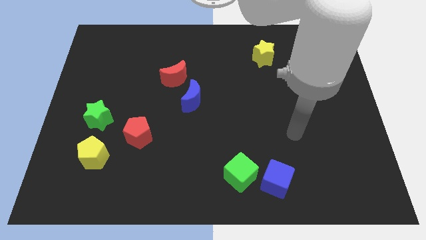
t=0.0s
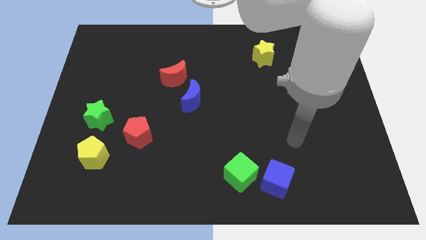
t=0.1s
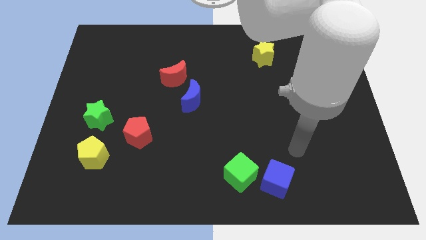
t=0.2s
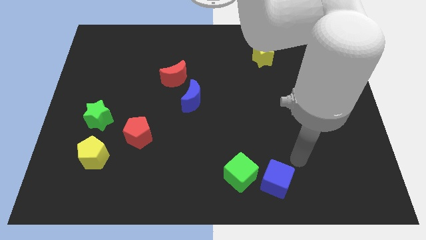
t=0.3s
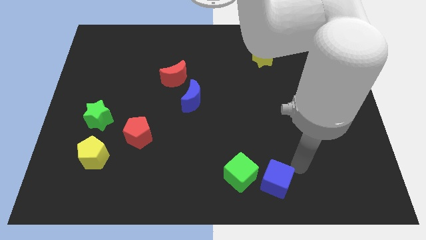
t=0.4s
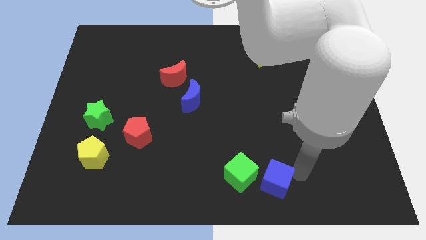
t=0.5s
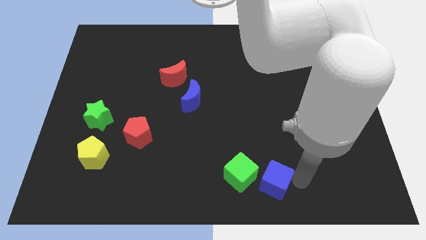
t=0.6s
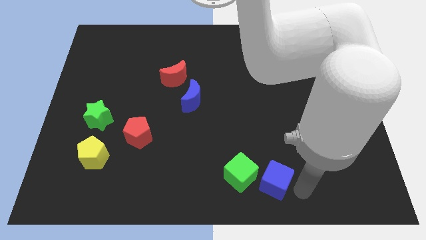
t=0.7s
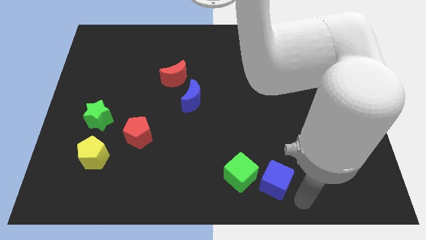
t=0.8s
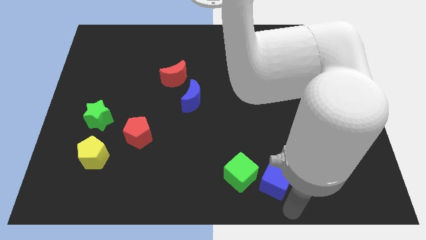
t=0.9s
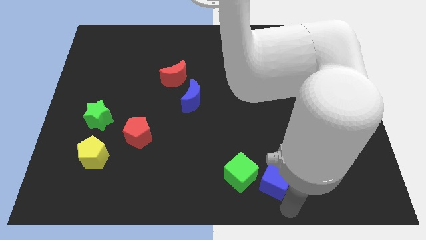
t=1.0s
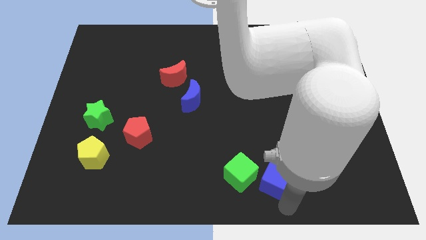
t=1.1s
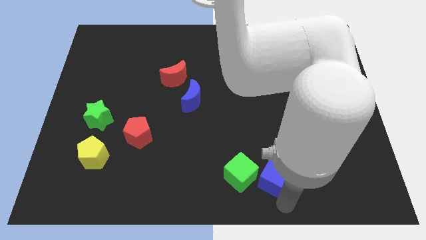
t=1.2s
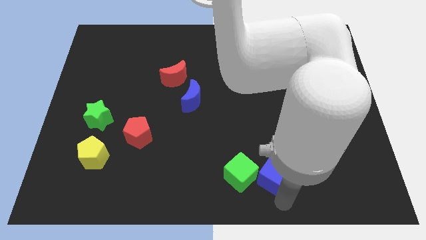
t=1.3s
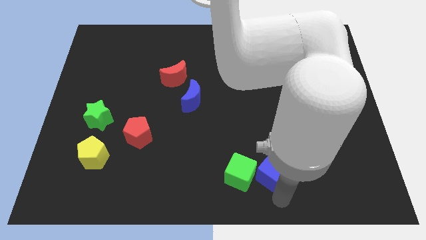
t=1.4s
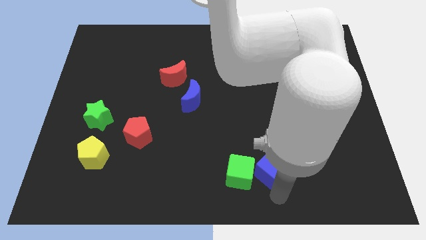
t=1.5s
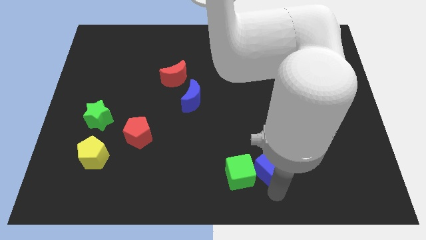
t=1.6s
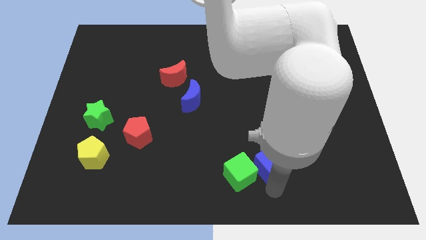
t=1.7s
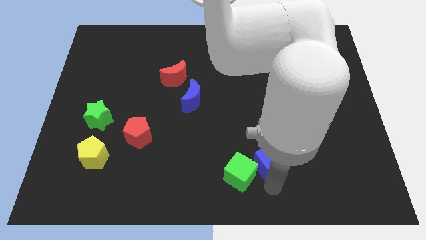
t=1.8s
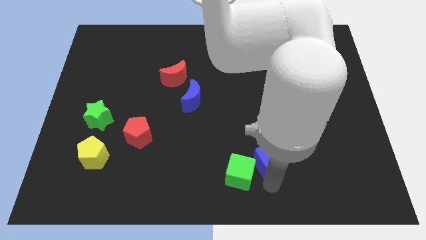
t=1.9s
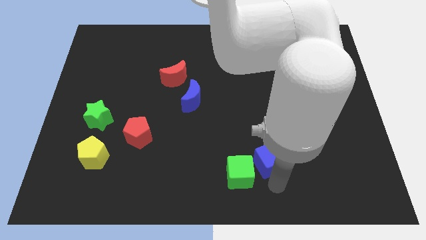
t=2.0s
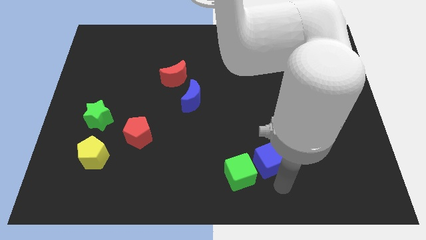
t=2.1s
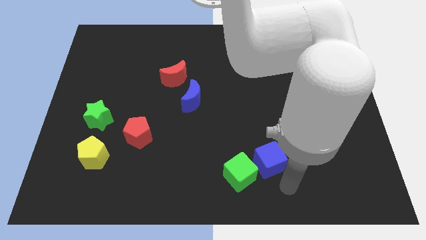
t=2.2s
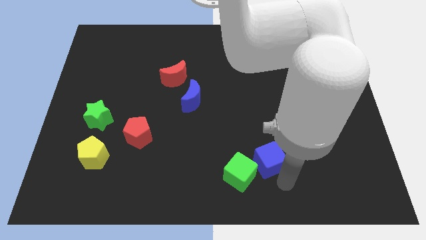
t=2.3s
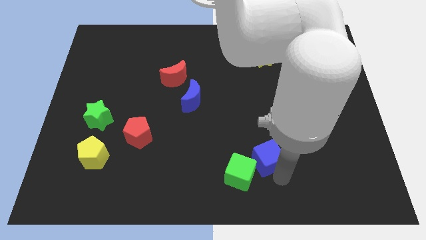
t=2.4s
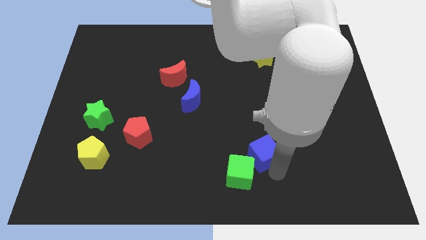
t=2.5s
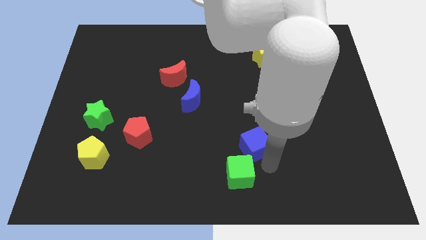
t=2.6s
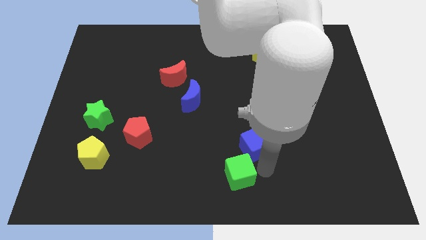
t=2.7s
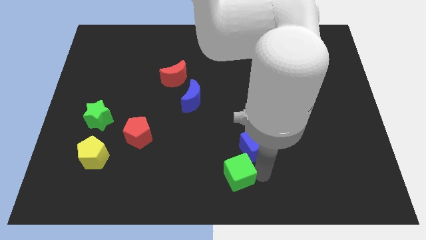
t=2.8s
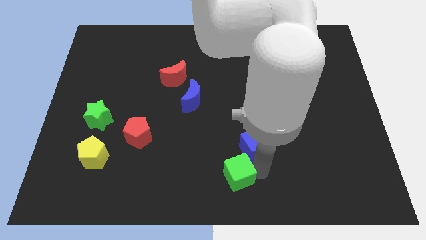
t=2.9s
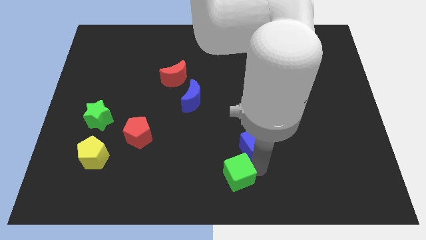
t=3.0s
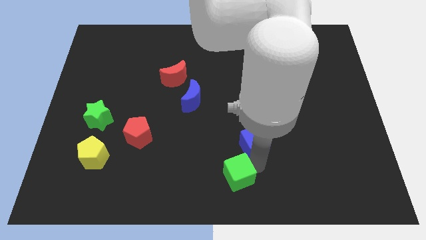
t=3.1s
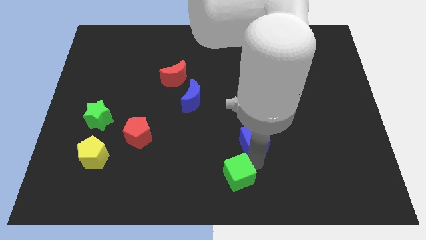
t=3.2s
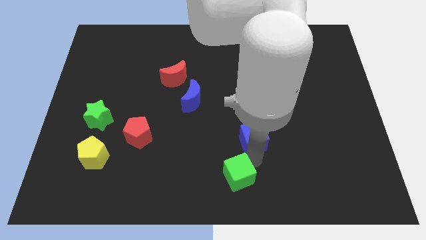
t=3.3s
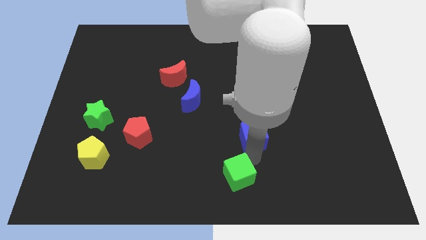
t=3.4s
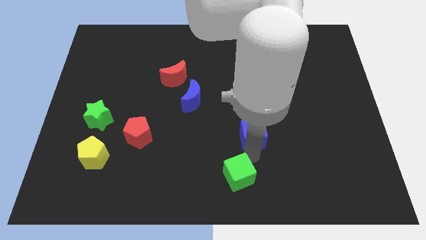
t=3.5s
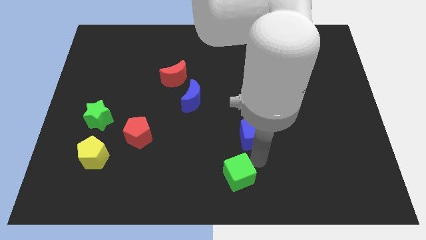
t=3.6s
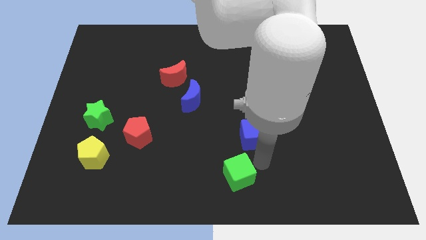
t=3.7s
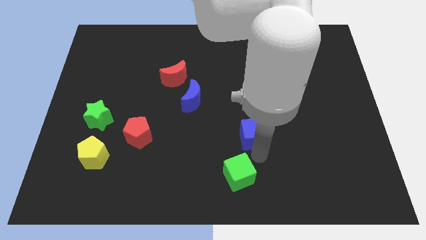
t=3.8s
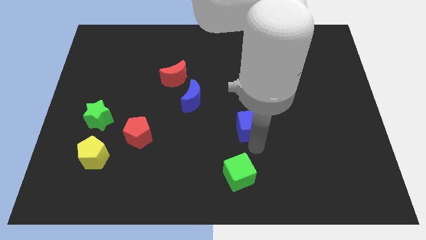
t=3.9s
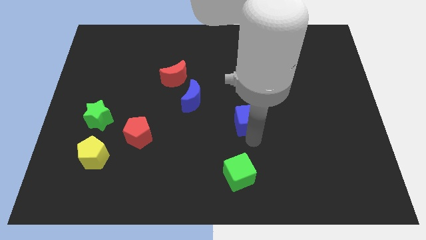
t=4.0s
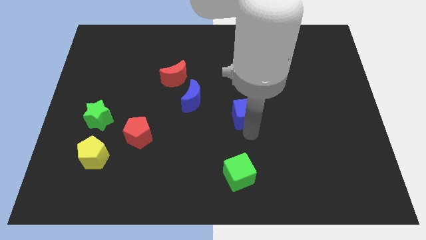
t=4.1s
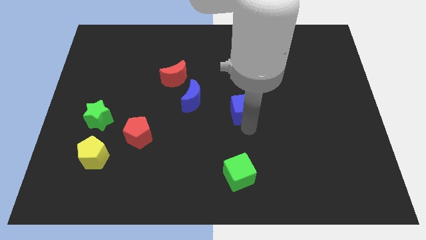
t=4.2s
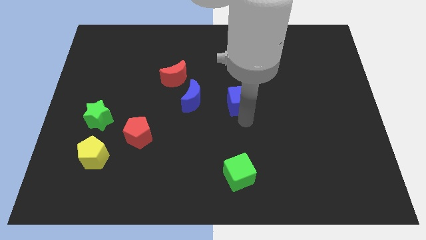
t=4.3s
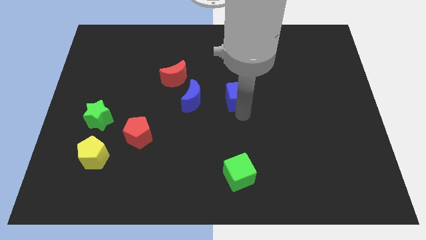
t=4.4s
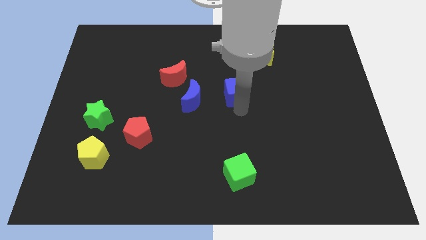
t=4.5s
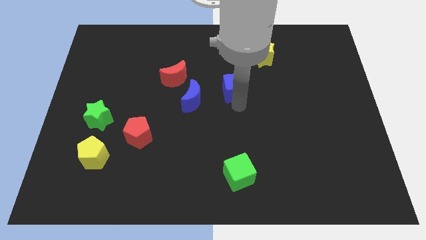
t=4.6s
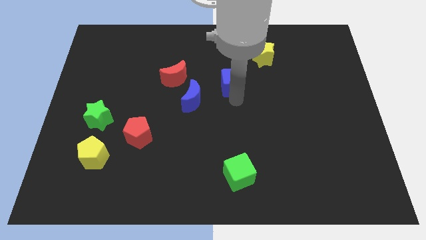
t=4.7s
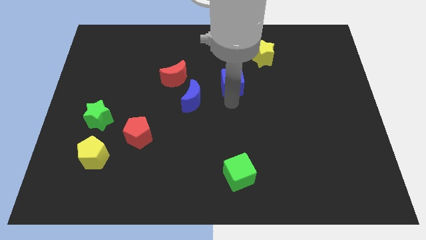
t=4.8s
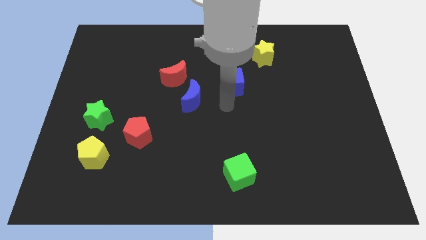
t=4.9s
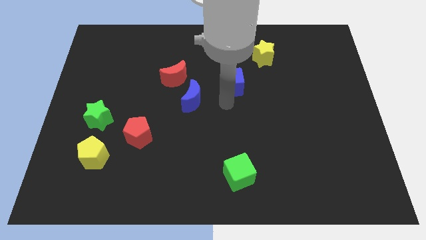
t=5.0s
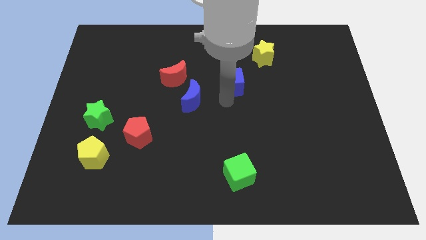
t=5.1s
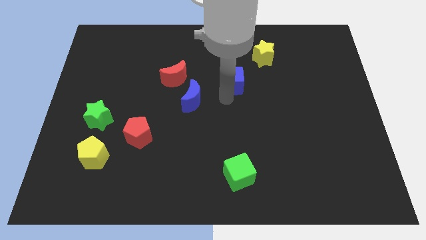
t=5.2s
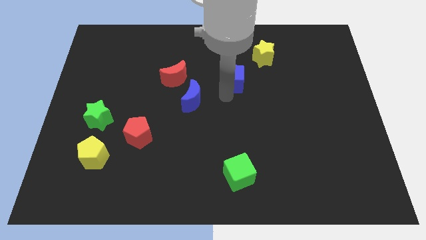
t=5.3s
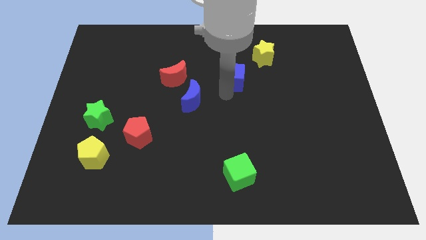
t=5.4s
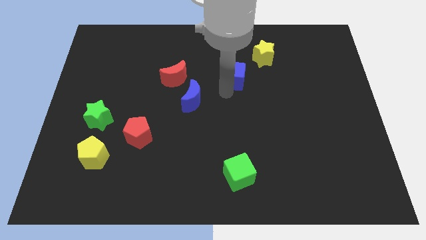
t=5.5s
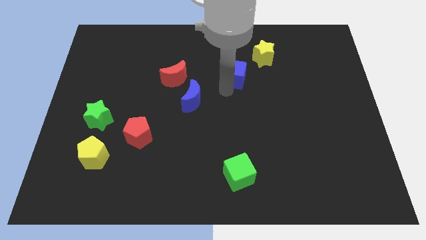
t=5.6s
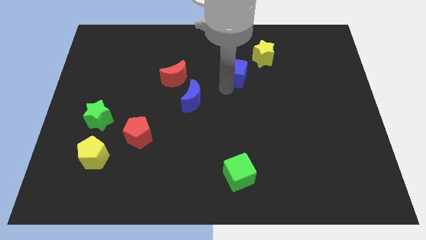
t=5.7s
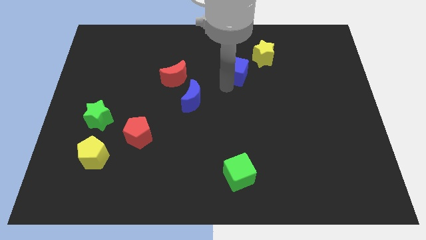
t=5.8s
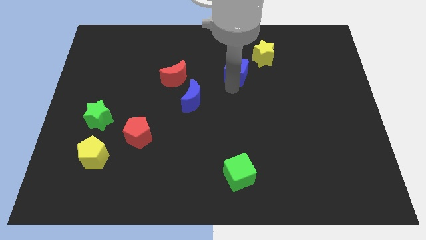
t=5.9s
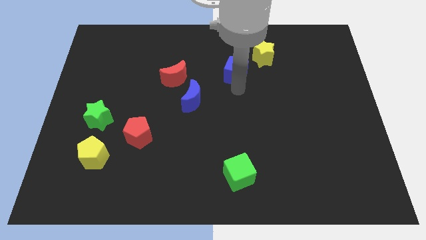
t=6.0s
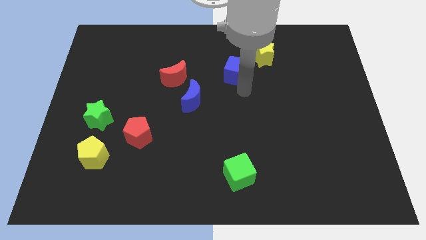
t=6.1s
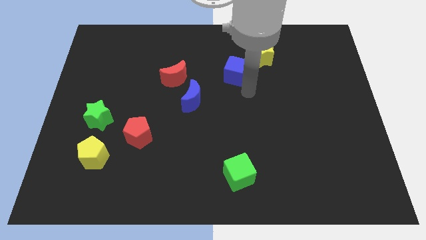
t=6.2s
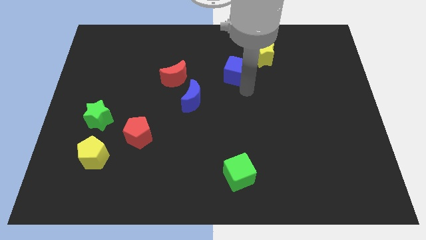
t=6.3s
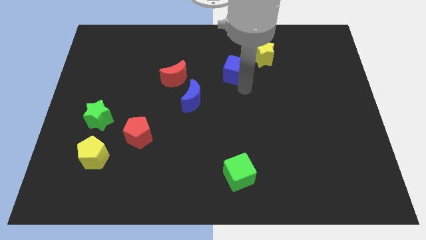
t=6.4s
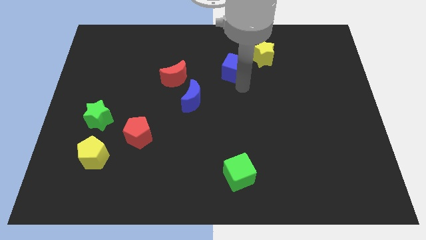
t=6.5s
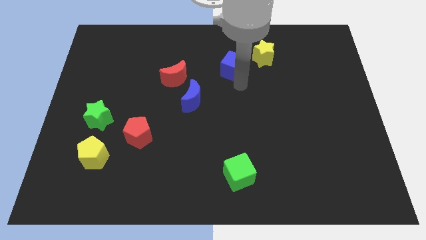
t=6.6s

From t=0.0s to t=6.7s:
move the blue cube to the left of the yellow star
